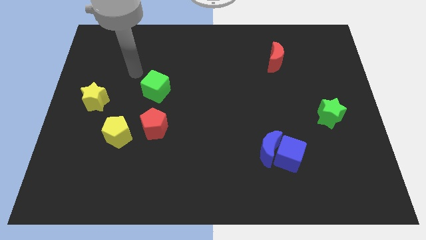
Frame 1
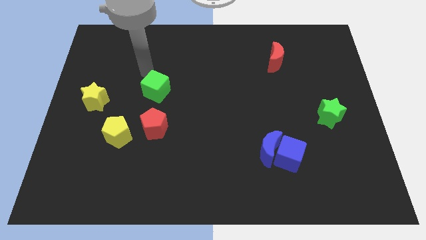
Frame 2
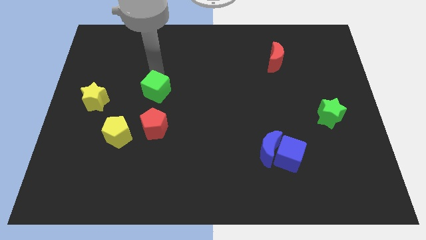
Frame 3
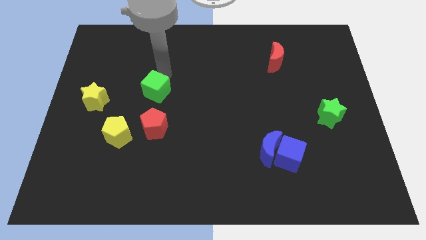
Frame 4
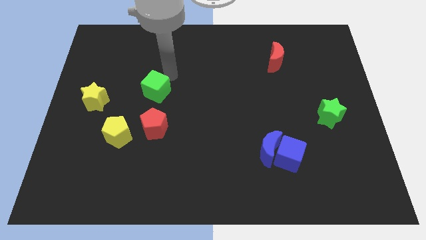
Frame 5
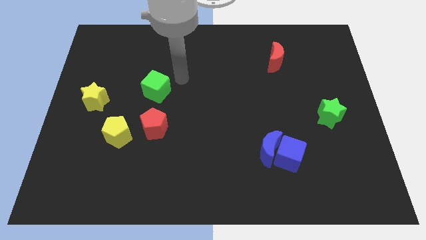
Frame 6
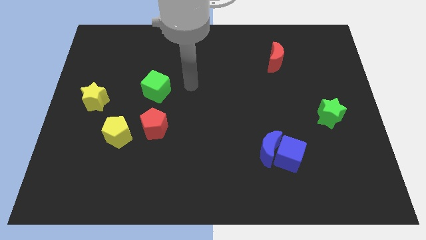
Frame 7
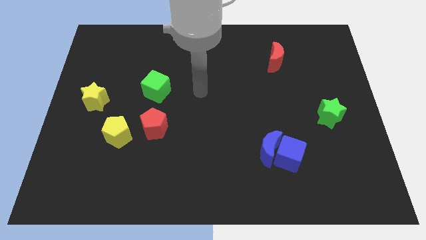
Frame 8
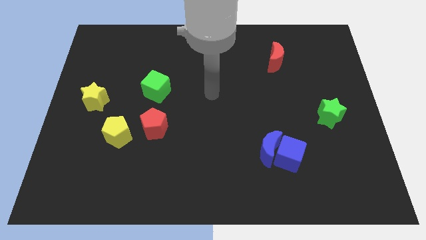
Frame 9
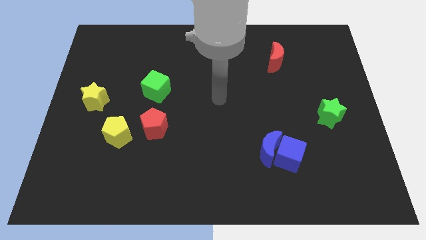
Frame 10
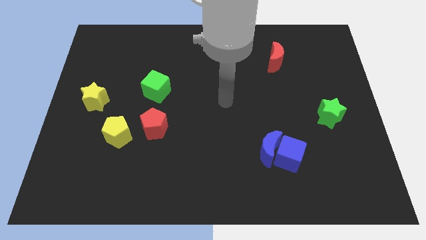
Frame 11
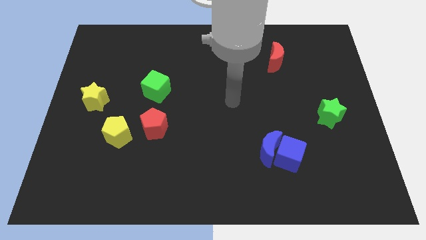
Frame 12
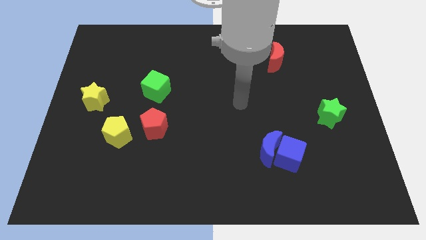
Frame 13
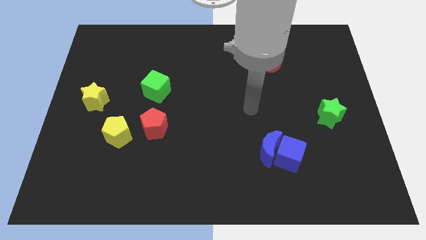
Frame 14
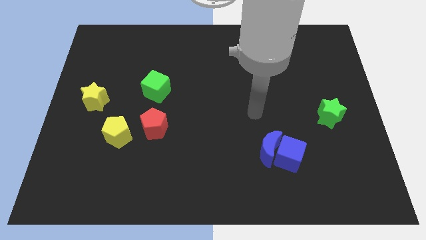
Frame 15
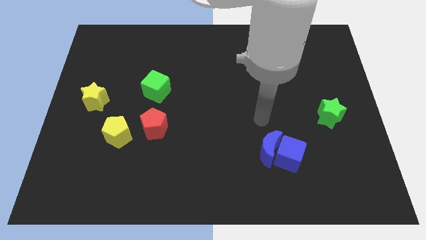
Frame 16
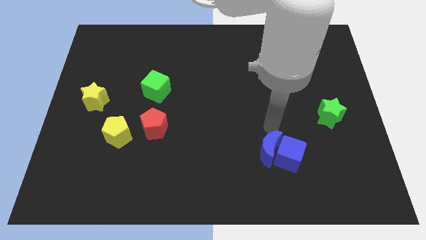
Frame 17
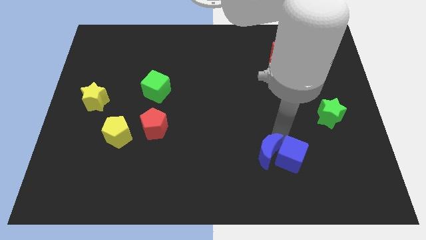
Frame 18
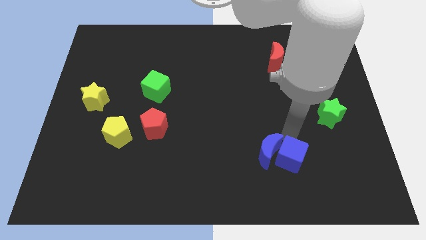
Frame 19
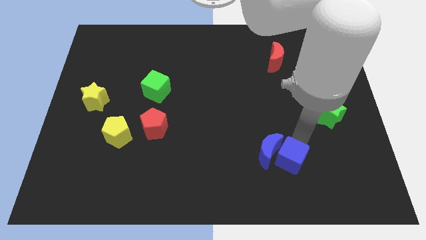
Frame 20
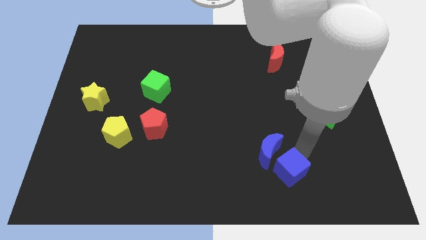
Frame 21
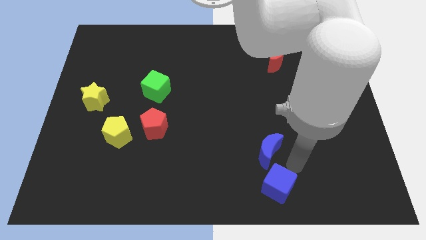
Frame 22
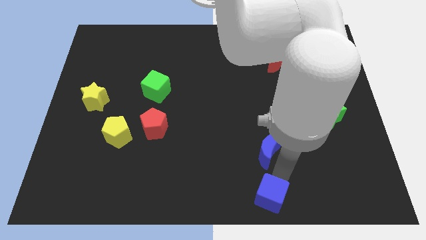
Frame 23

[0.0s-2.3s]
pull the blue moon apart from the blue cube

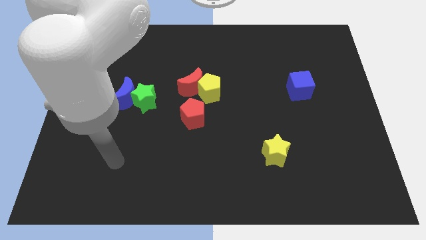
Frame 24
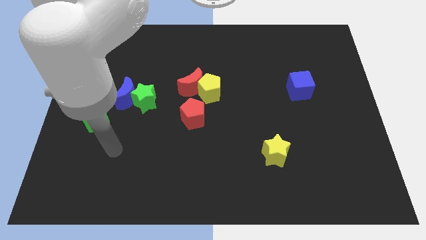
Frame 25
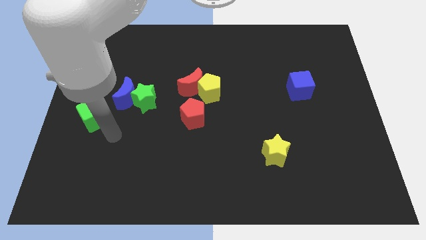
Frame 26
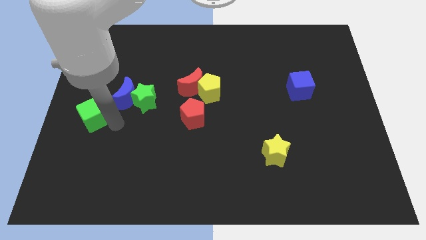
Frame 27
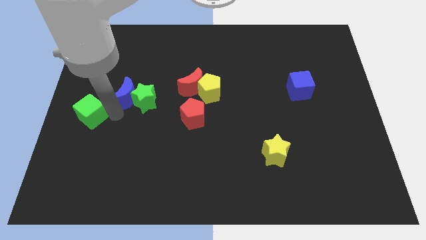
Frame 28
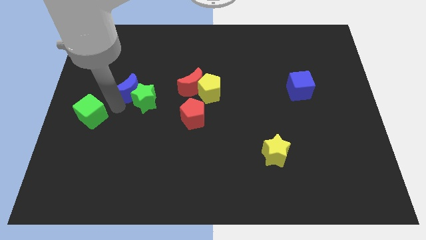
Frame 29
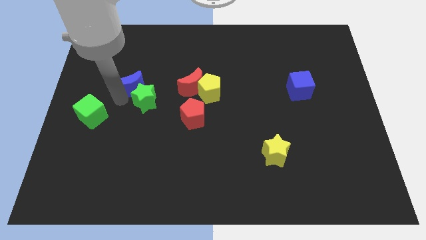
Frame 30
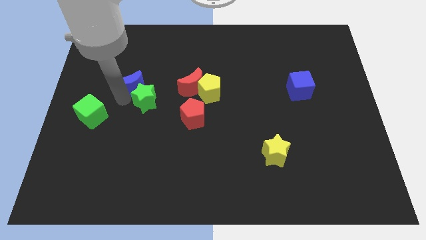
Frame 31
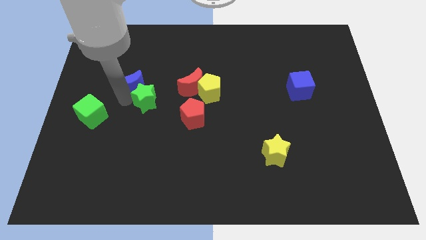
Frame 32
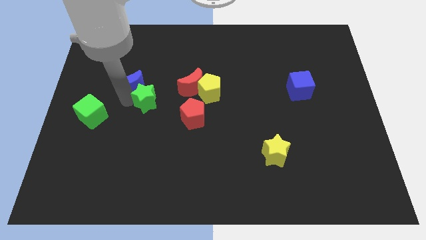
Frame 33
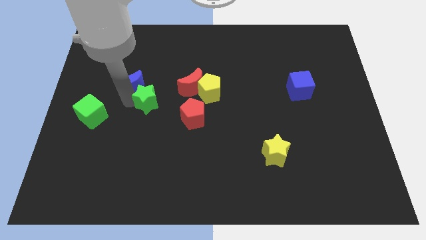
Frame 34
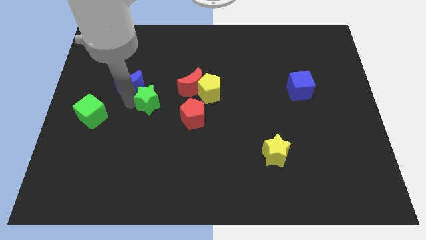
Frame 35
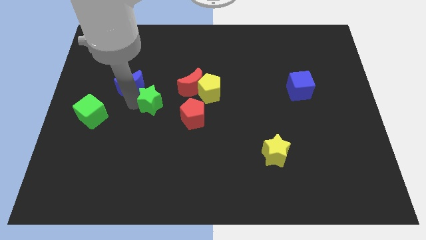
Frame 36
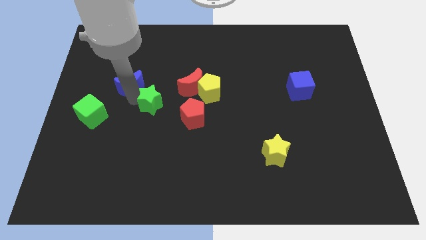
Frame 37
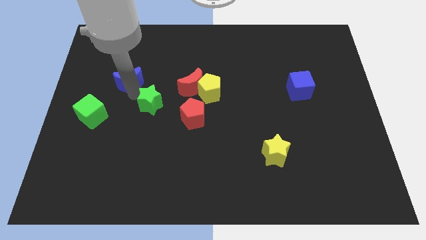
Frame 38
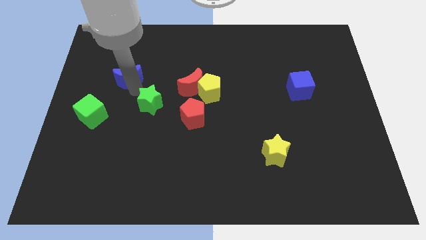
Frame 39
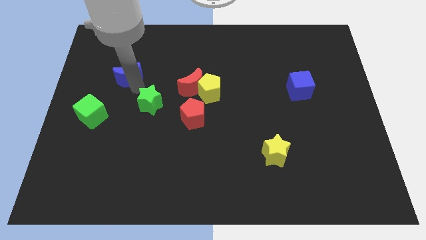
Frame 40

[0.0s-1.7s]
separate the green star from the blue moon

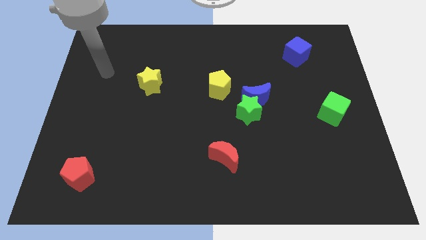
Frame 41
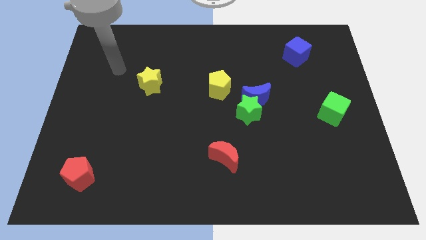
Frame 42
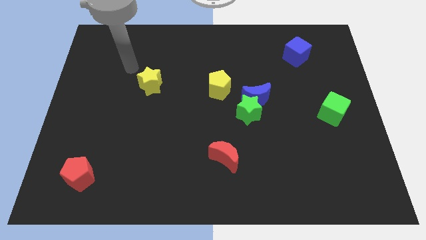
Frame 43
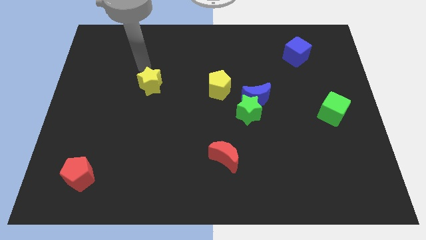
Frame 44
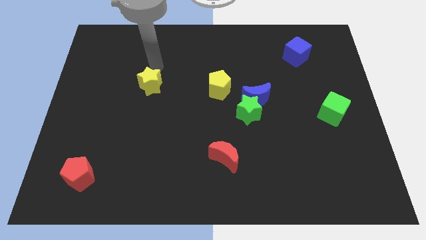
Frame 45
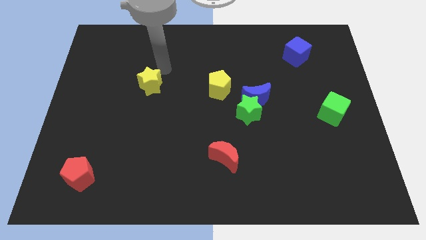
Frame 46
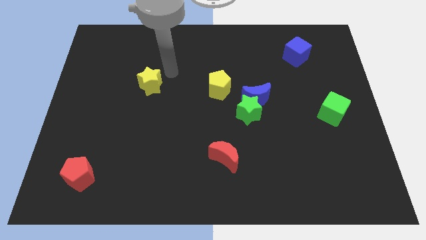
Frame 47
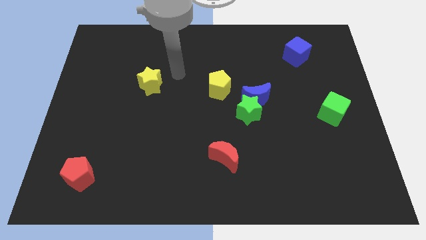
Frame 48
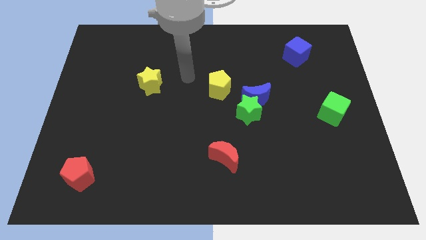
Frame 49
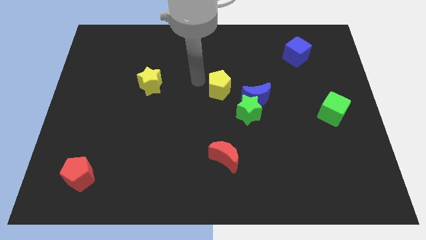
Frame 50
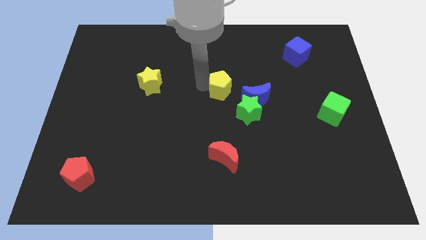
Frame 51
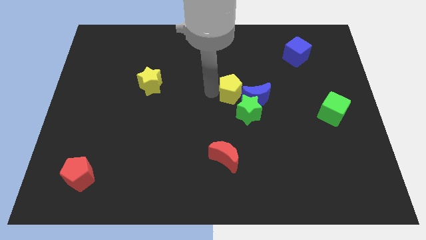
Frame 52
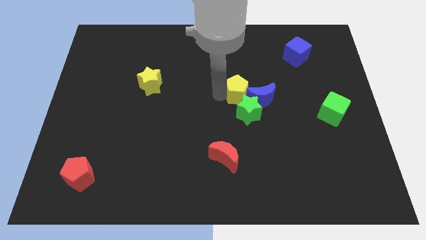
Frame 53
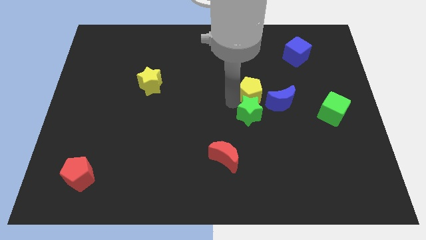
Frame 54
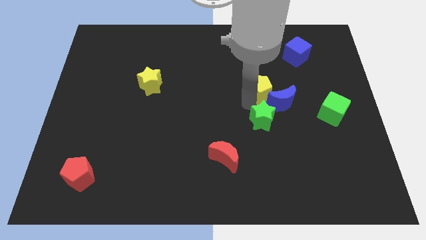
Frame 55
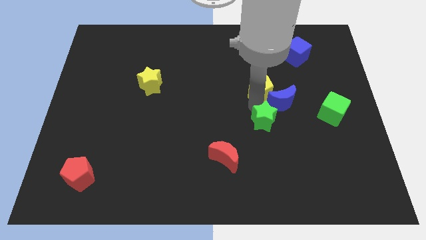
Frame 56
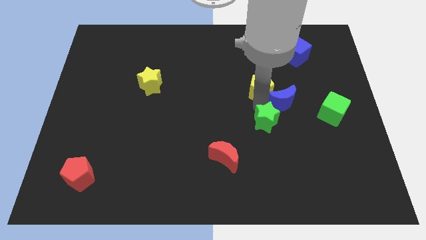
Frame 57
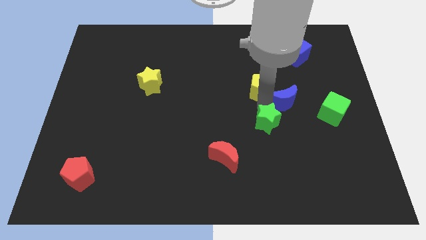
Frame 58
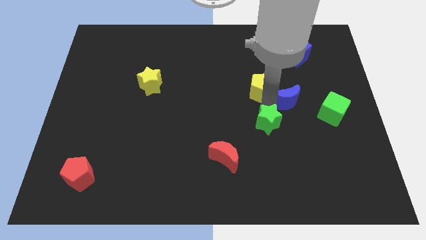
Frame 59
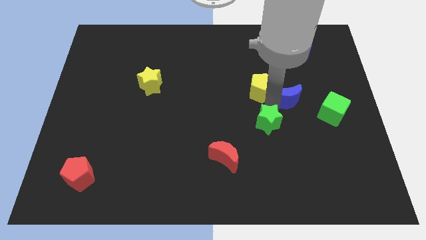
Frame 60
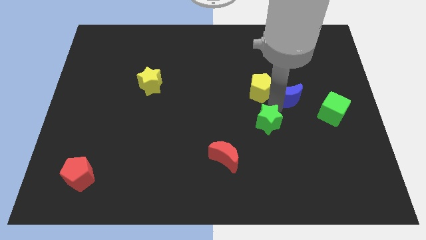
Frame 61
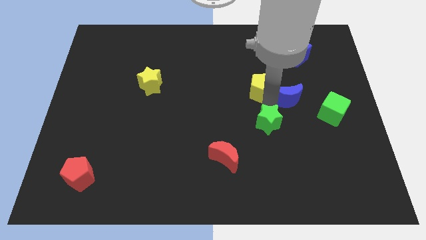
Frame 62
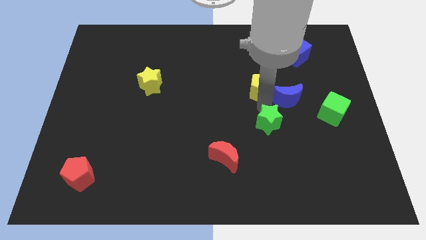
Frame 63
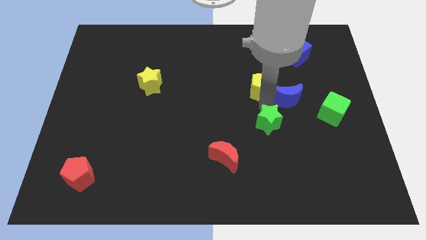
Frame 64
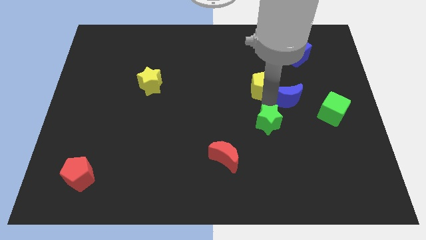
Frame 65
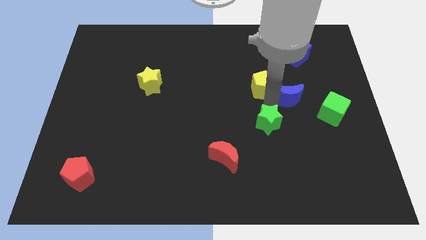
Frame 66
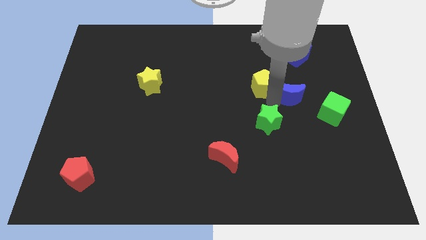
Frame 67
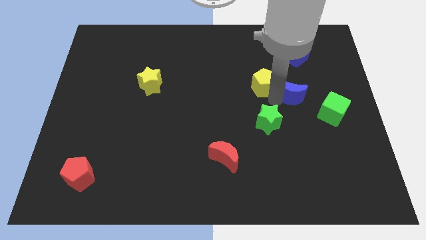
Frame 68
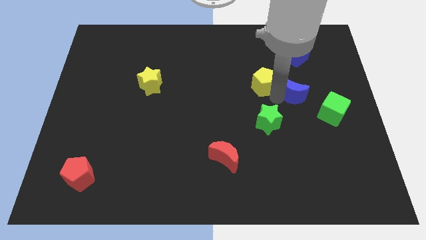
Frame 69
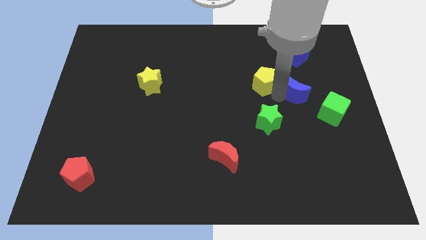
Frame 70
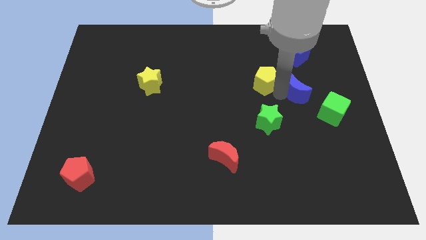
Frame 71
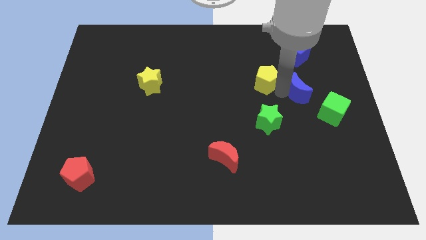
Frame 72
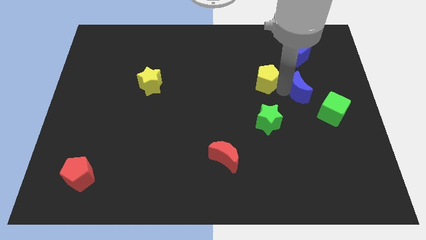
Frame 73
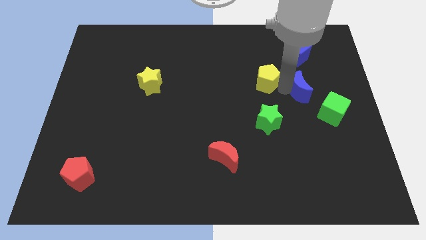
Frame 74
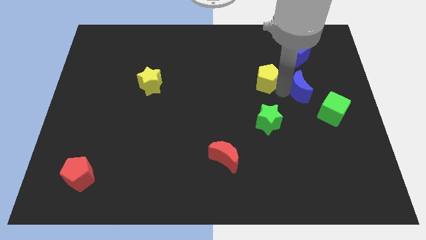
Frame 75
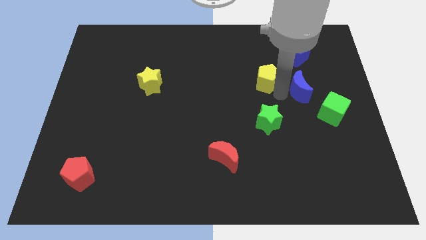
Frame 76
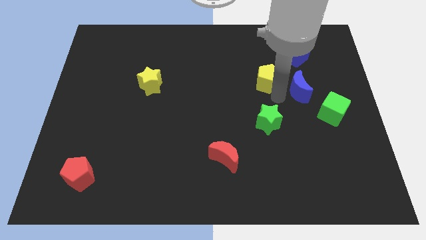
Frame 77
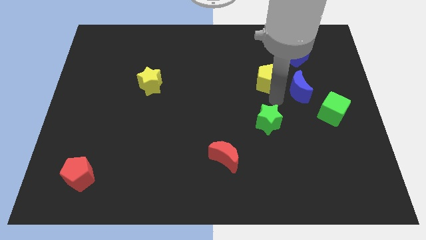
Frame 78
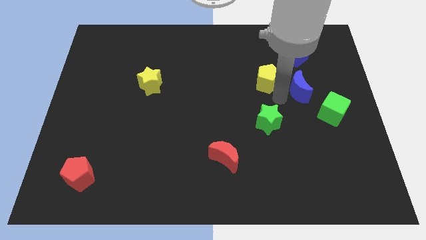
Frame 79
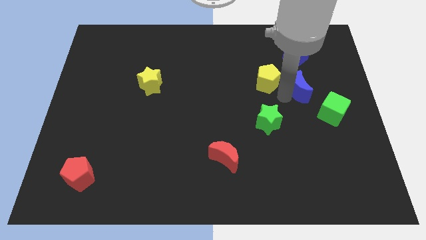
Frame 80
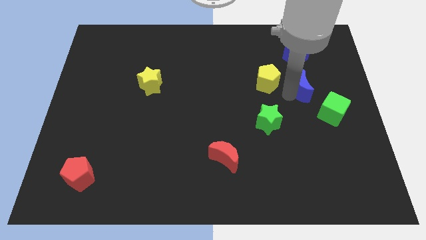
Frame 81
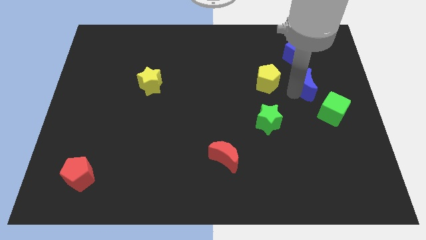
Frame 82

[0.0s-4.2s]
separate the blue moon from the green star and yellow pentagon

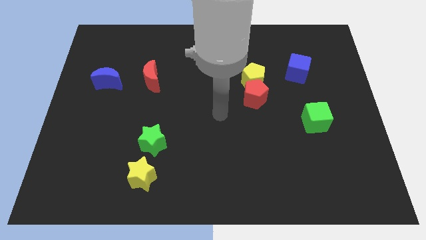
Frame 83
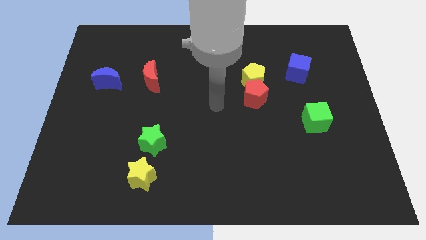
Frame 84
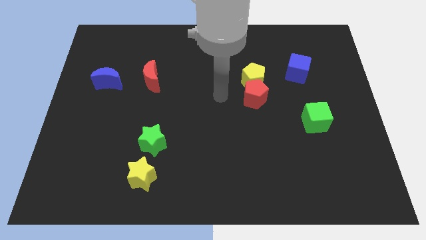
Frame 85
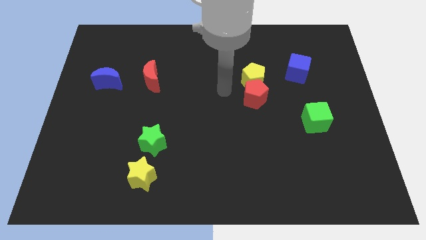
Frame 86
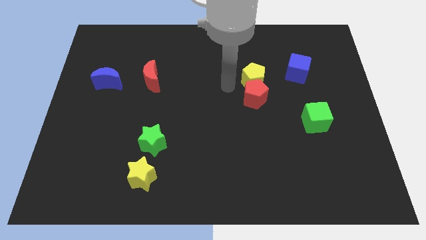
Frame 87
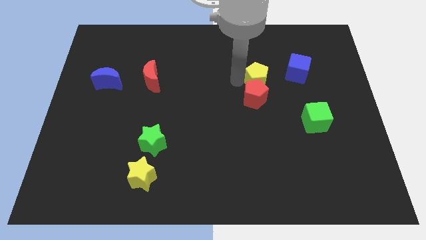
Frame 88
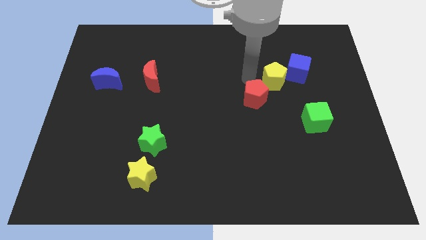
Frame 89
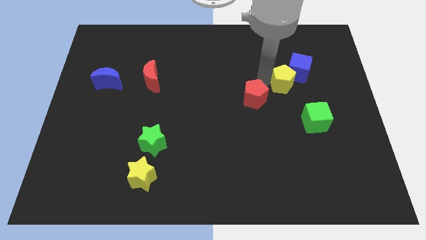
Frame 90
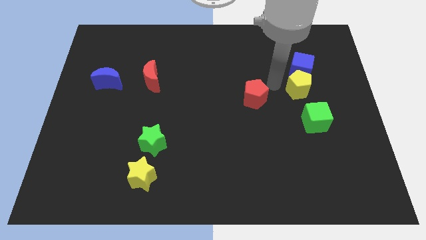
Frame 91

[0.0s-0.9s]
separate the red pentagon from the yellow pentagon

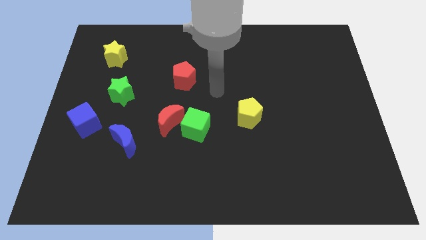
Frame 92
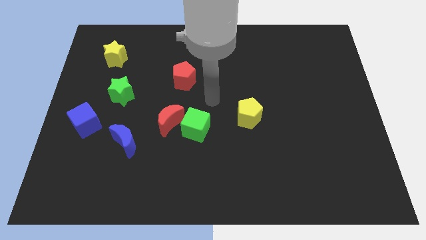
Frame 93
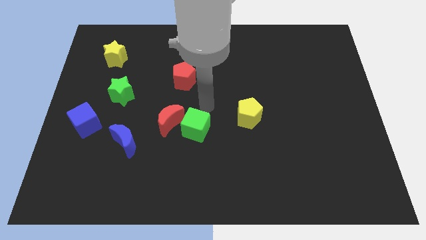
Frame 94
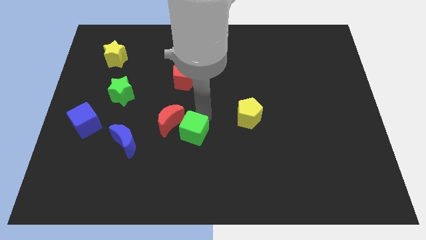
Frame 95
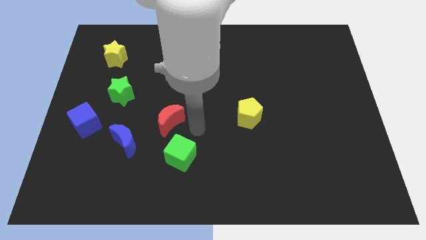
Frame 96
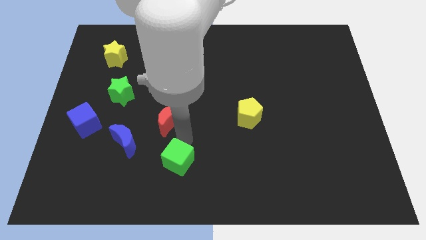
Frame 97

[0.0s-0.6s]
pull the red moon apart from the green cube
